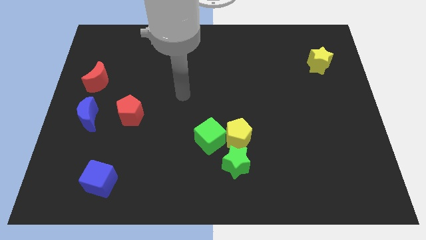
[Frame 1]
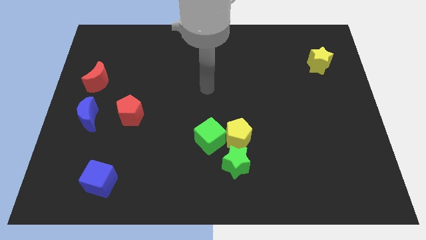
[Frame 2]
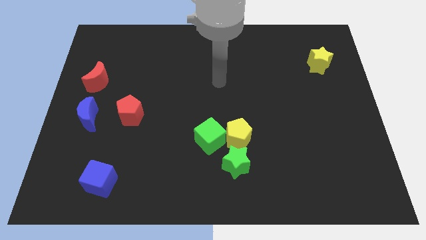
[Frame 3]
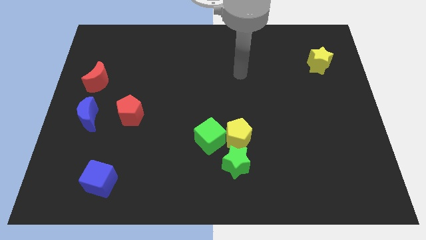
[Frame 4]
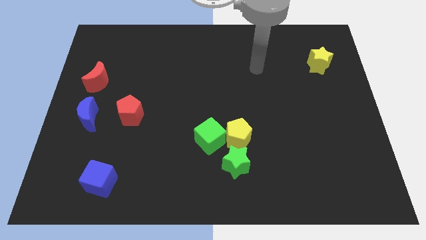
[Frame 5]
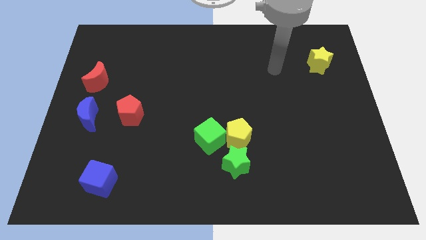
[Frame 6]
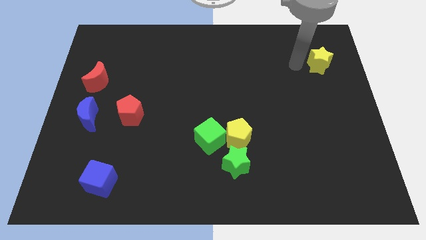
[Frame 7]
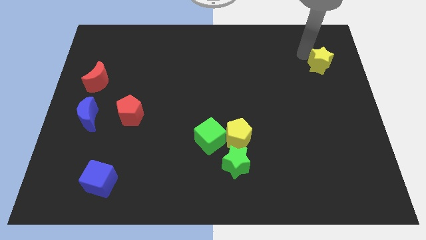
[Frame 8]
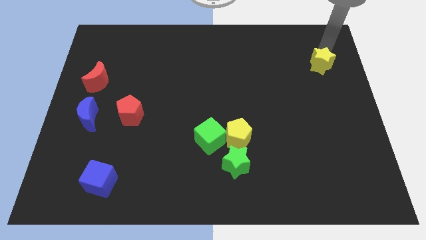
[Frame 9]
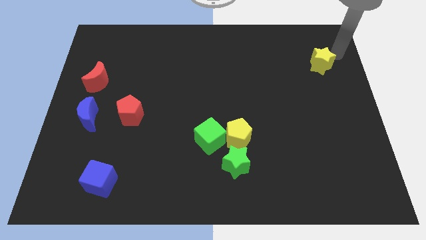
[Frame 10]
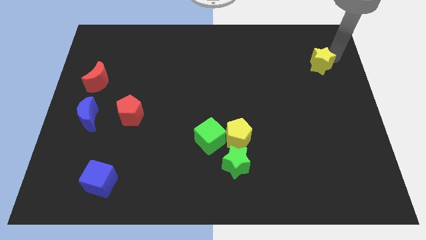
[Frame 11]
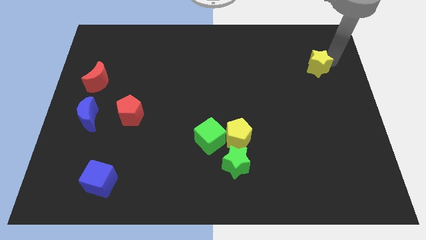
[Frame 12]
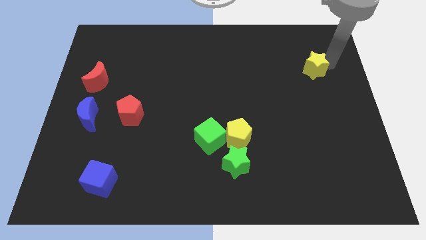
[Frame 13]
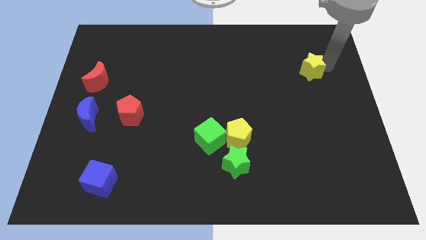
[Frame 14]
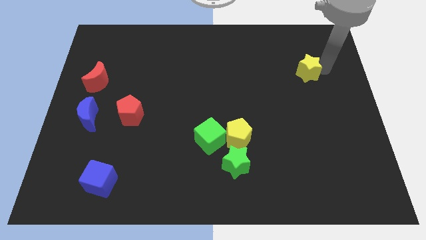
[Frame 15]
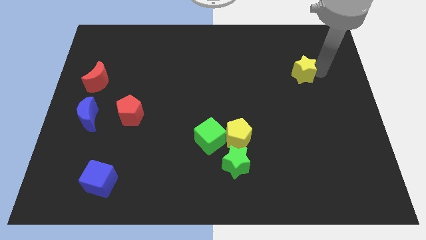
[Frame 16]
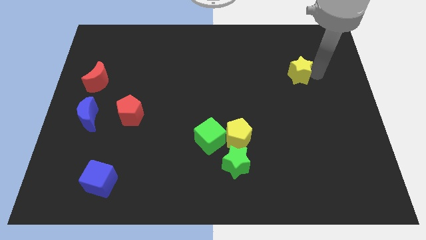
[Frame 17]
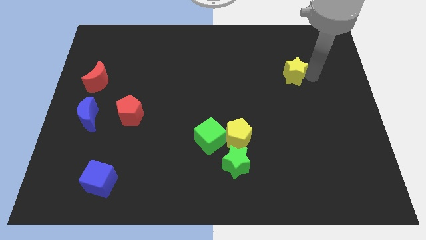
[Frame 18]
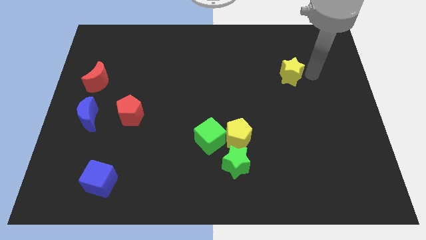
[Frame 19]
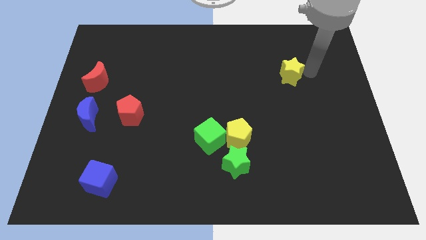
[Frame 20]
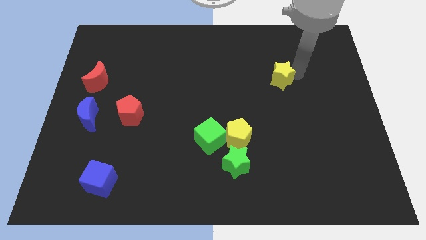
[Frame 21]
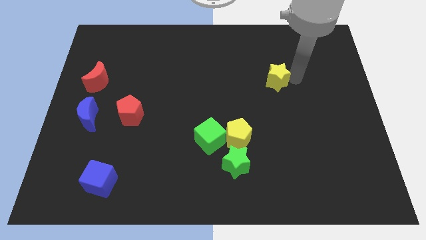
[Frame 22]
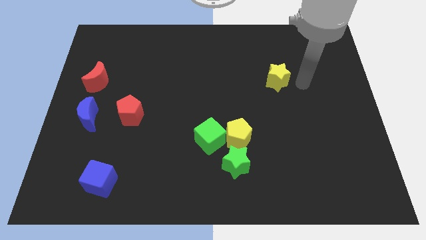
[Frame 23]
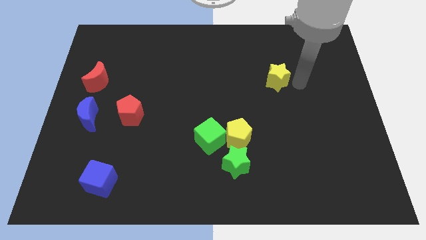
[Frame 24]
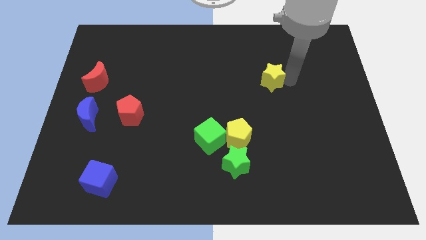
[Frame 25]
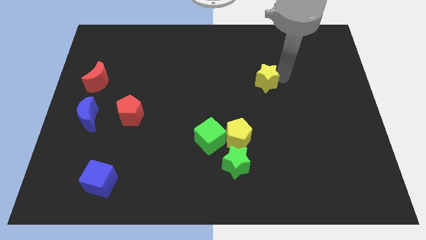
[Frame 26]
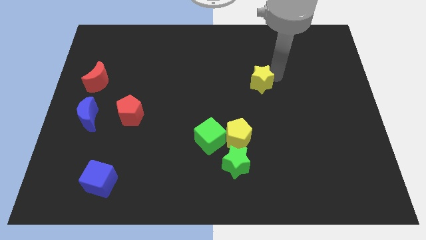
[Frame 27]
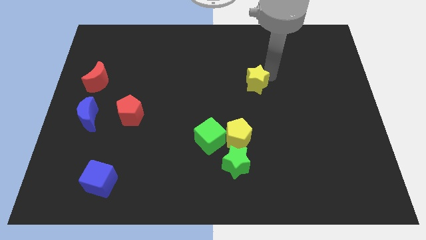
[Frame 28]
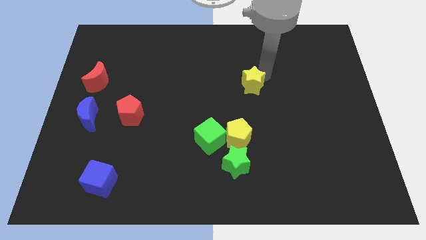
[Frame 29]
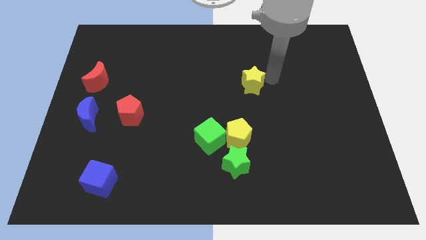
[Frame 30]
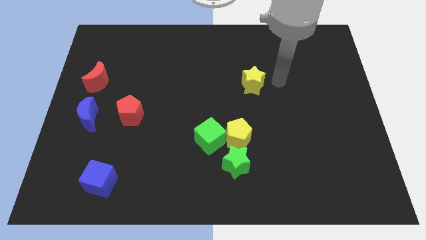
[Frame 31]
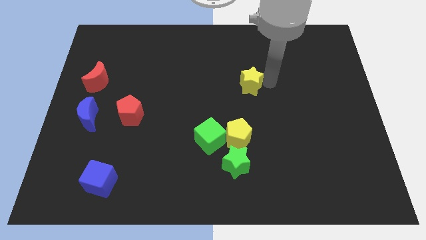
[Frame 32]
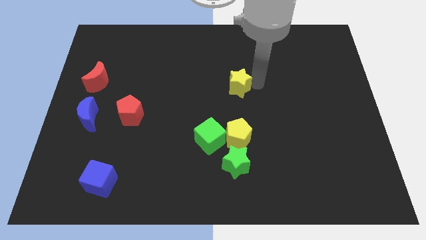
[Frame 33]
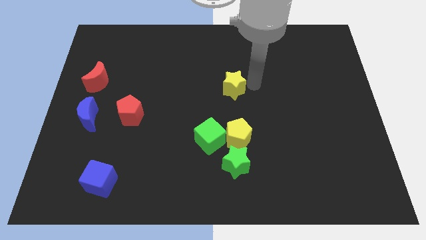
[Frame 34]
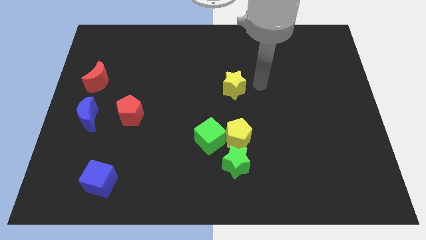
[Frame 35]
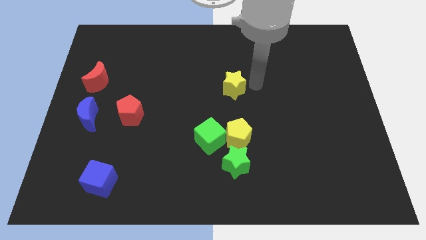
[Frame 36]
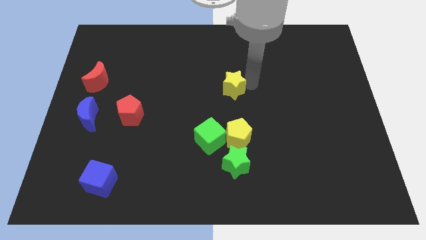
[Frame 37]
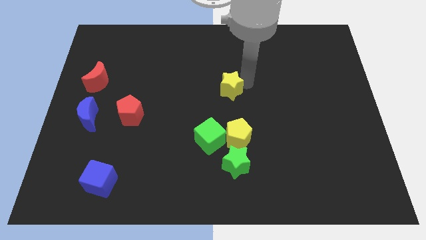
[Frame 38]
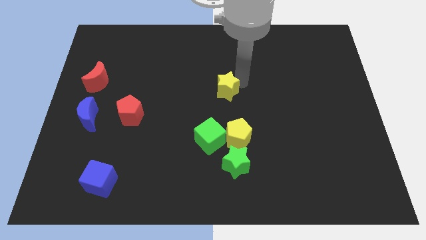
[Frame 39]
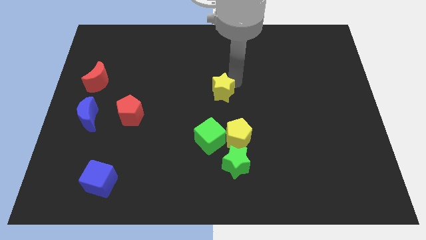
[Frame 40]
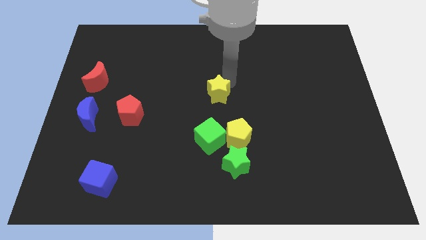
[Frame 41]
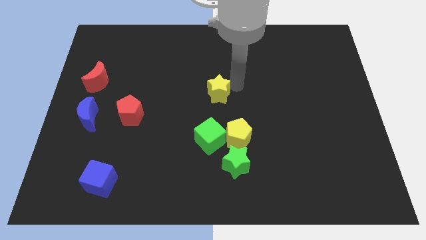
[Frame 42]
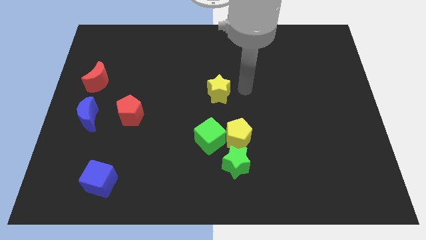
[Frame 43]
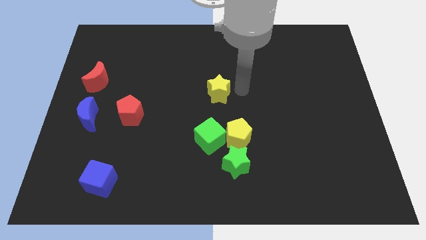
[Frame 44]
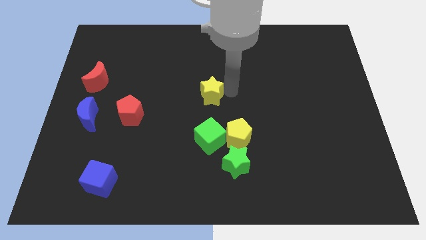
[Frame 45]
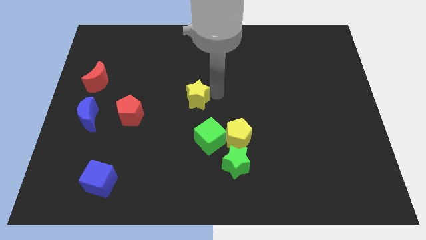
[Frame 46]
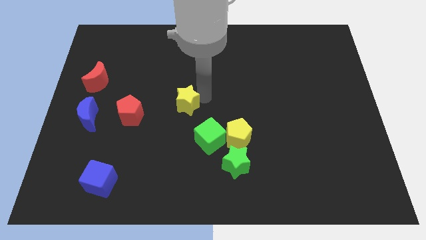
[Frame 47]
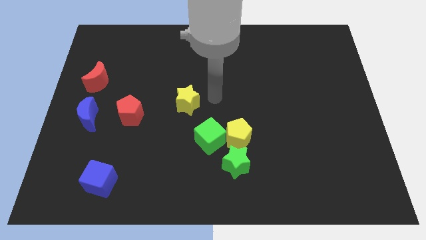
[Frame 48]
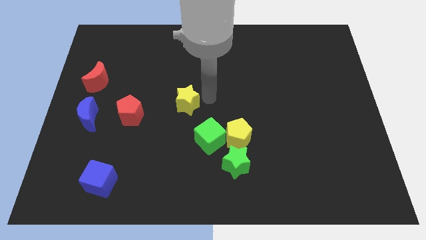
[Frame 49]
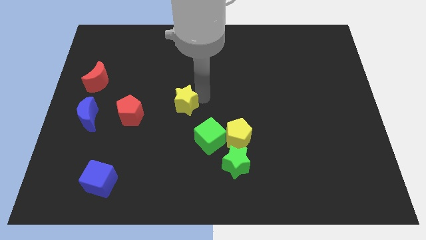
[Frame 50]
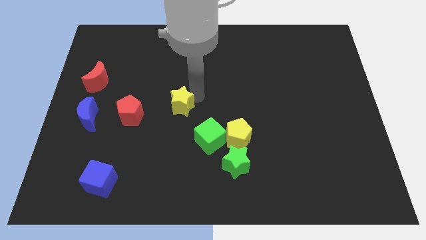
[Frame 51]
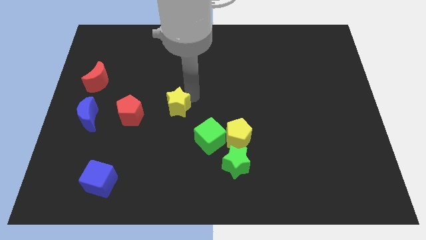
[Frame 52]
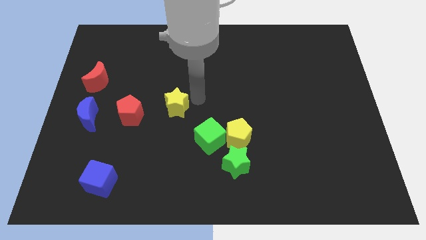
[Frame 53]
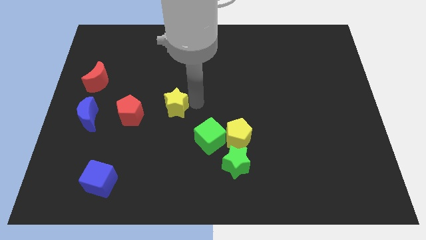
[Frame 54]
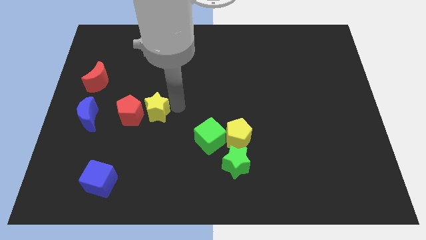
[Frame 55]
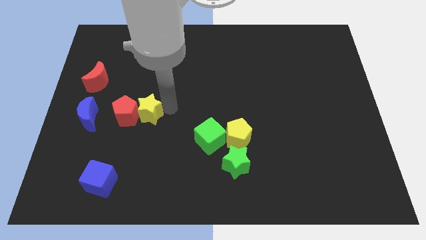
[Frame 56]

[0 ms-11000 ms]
move the yellow star close to the red pentagon

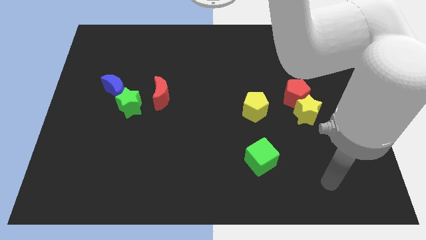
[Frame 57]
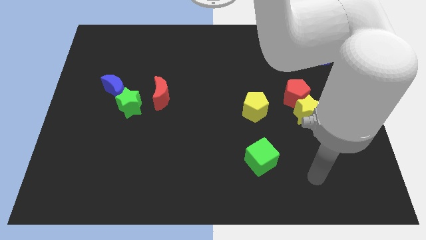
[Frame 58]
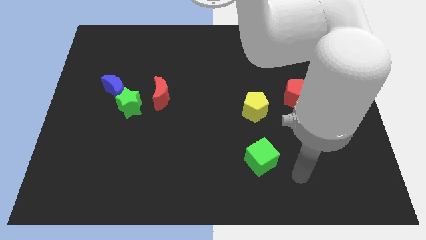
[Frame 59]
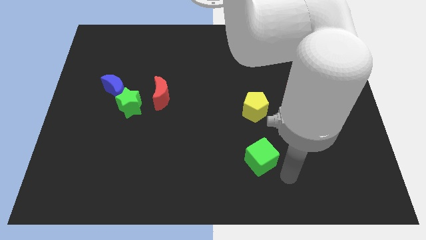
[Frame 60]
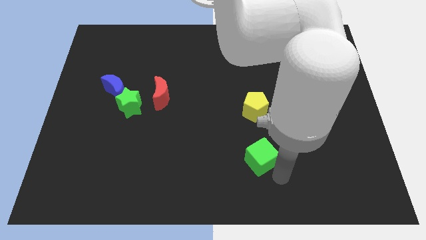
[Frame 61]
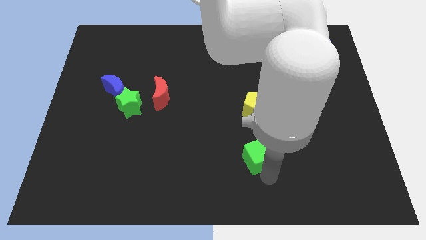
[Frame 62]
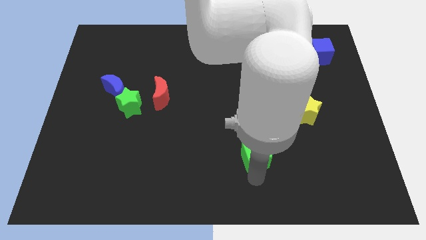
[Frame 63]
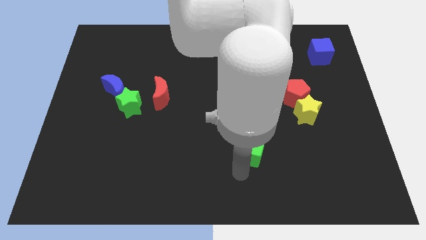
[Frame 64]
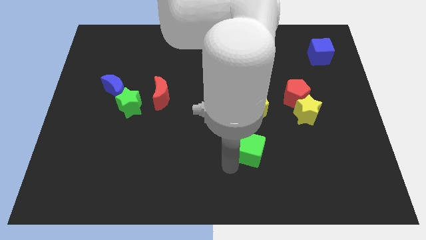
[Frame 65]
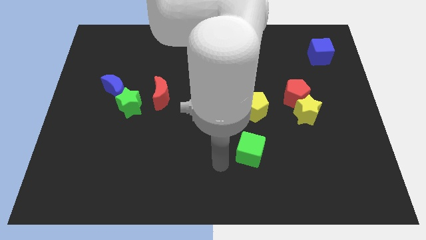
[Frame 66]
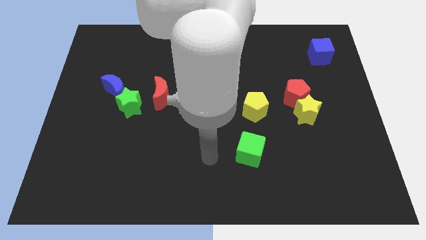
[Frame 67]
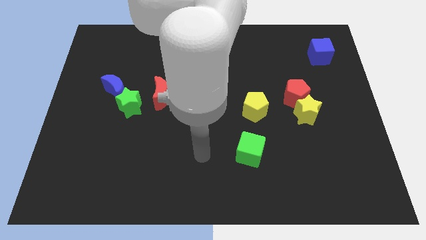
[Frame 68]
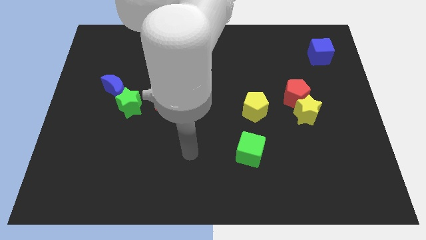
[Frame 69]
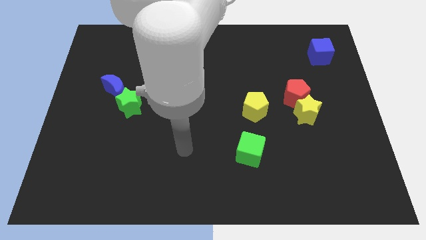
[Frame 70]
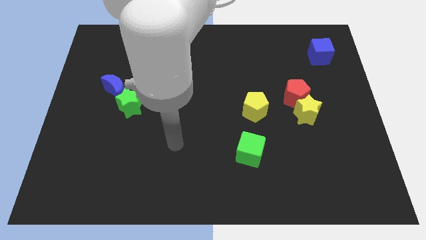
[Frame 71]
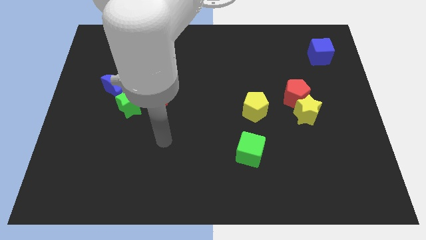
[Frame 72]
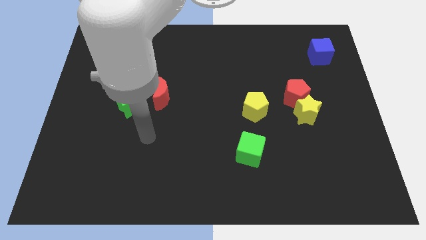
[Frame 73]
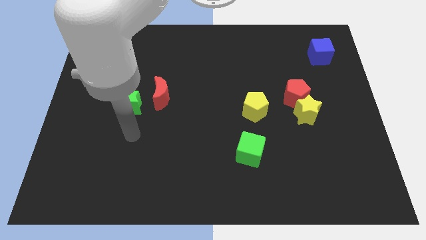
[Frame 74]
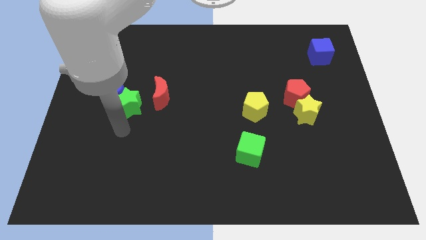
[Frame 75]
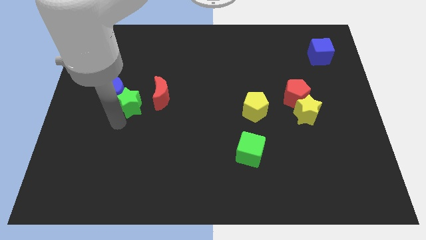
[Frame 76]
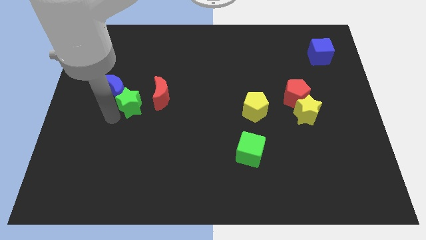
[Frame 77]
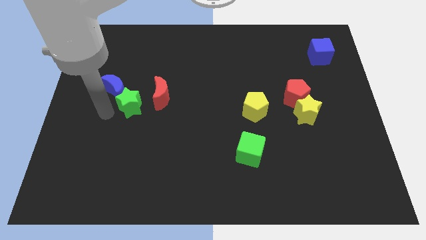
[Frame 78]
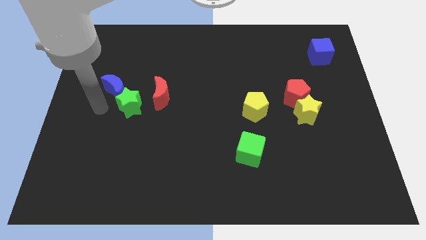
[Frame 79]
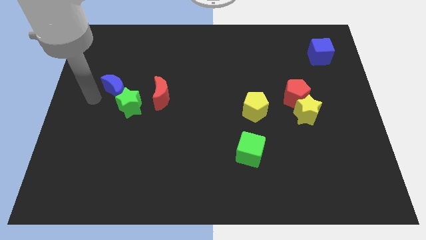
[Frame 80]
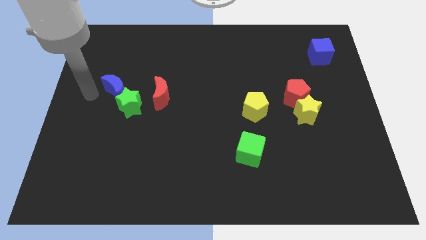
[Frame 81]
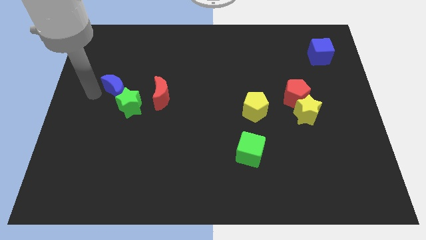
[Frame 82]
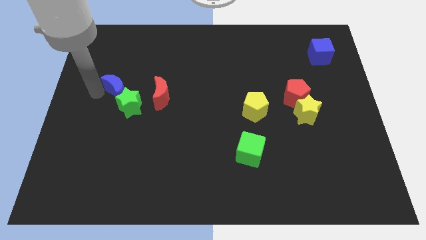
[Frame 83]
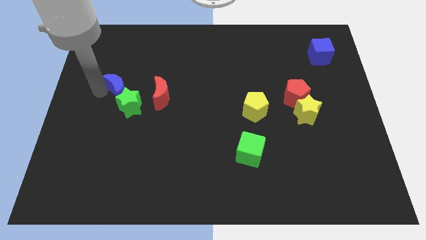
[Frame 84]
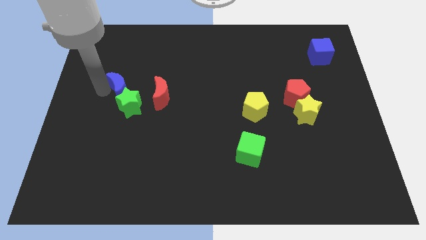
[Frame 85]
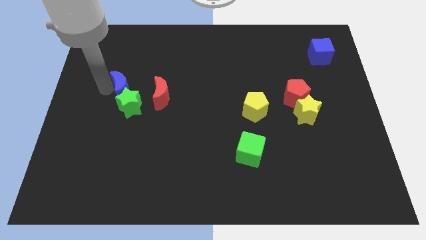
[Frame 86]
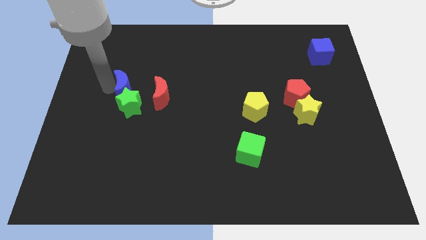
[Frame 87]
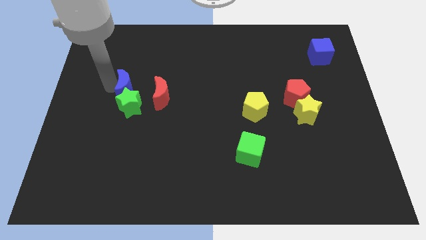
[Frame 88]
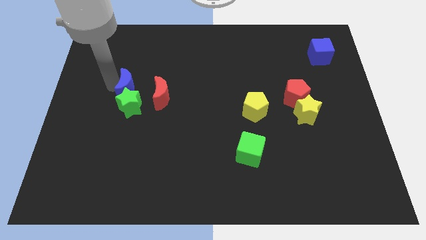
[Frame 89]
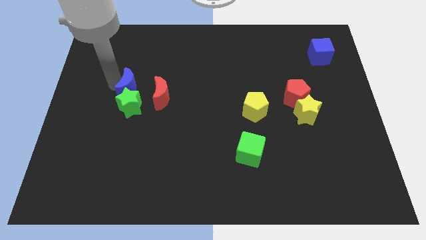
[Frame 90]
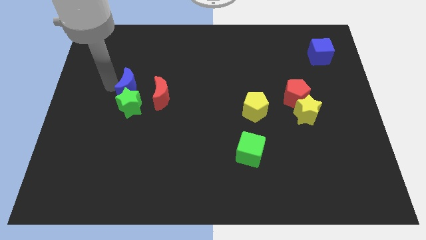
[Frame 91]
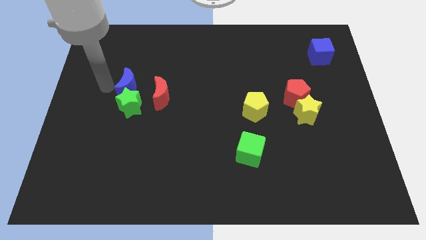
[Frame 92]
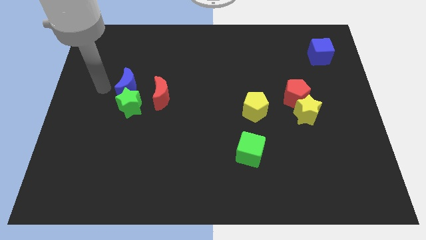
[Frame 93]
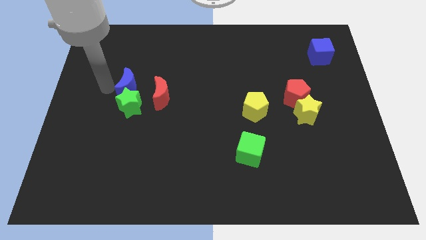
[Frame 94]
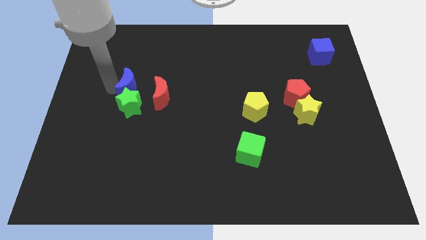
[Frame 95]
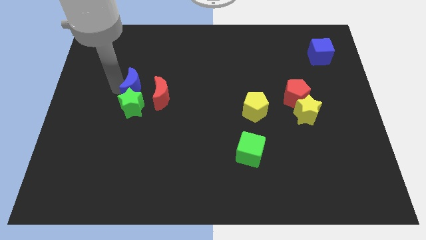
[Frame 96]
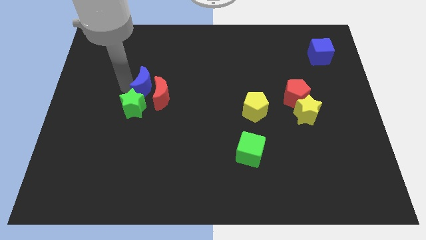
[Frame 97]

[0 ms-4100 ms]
push the blue moon next to the red moon
